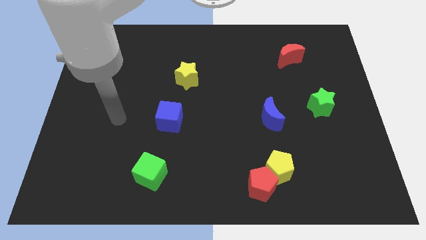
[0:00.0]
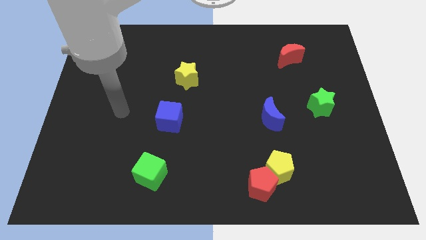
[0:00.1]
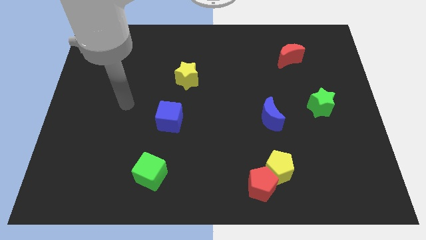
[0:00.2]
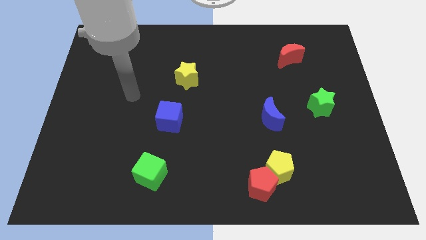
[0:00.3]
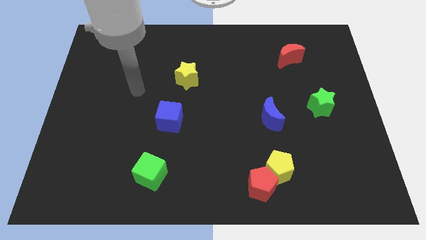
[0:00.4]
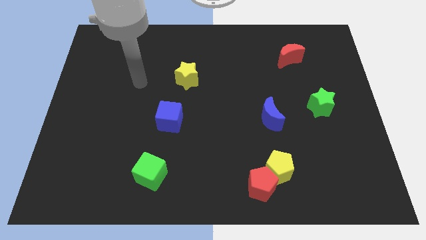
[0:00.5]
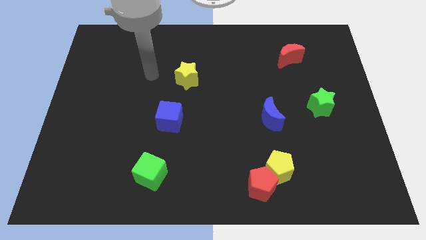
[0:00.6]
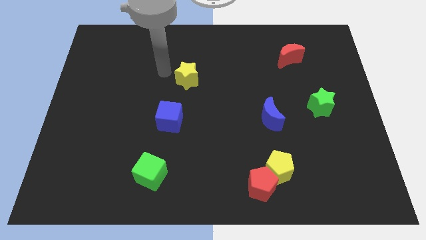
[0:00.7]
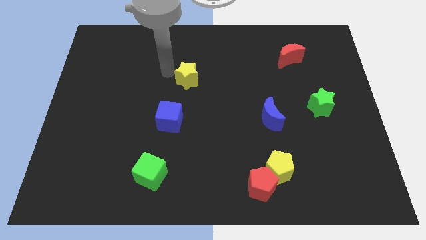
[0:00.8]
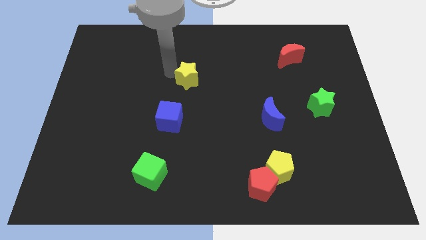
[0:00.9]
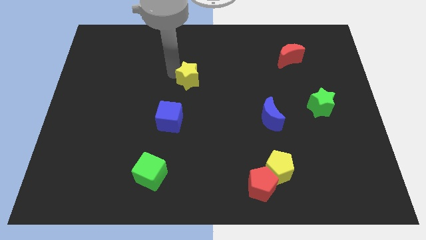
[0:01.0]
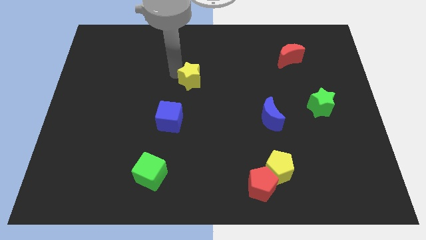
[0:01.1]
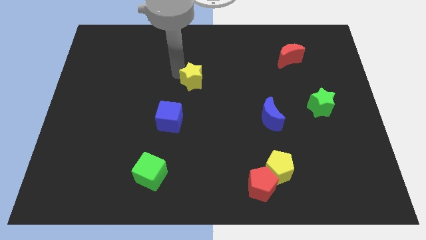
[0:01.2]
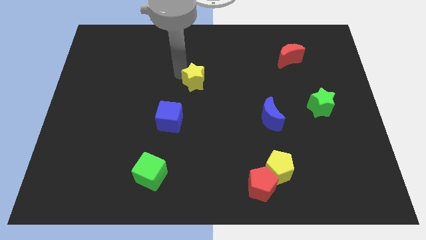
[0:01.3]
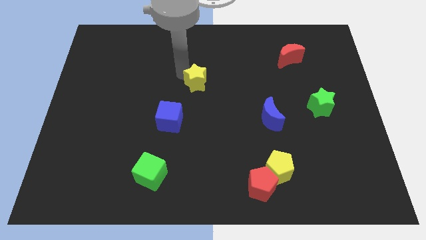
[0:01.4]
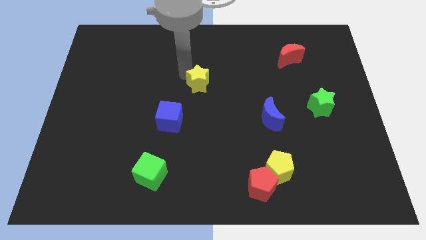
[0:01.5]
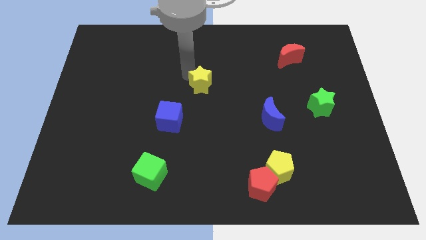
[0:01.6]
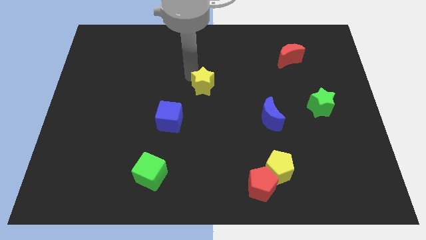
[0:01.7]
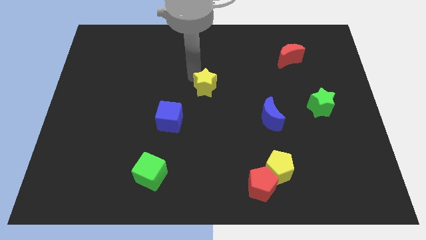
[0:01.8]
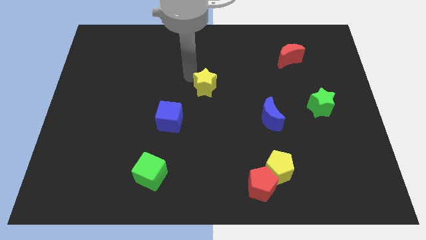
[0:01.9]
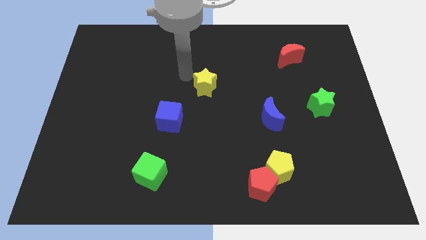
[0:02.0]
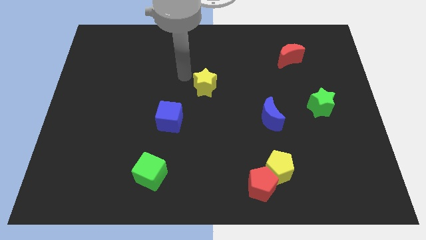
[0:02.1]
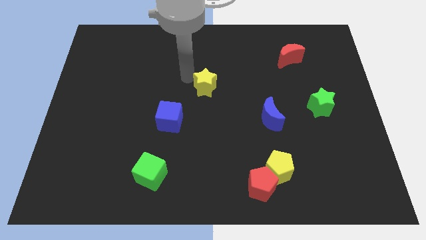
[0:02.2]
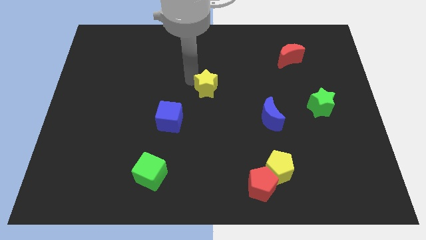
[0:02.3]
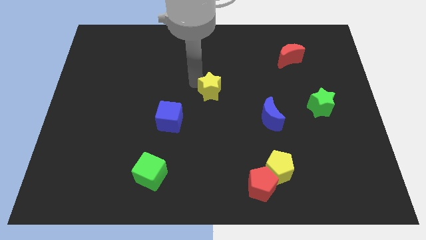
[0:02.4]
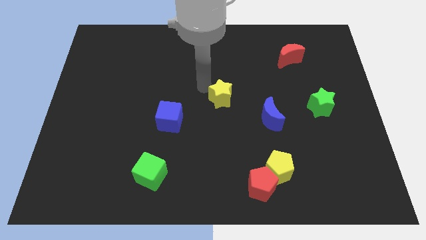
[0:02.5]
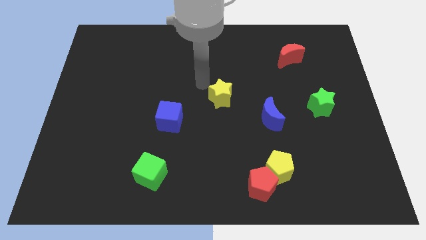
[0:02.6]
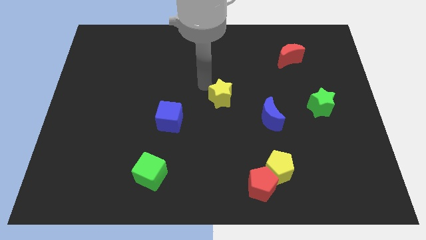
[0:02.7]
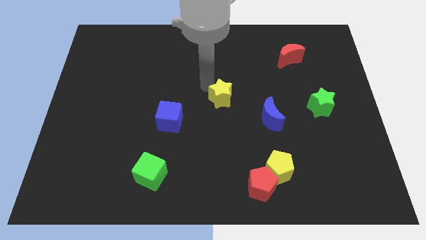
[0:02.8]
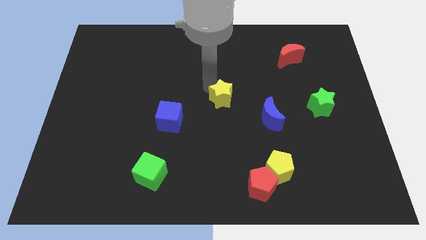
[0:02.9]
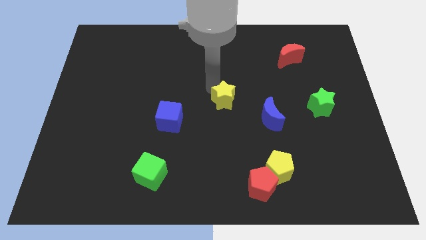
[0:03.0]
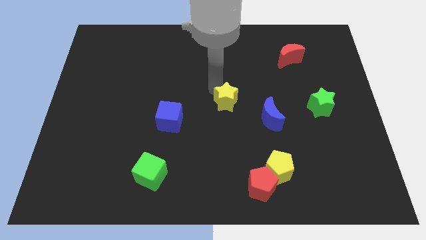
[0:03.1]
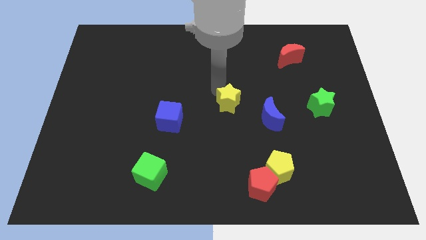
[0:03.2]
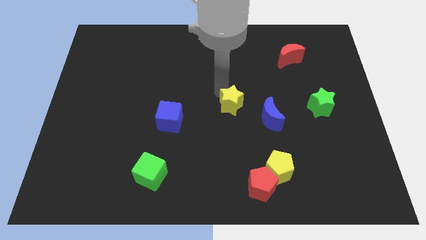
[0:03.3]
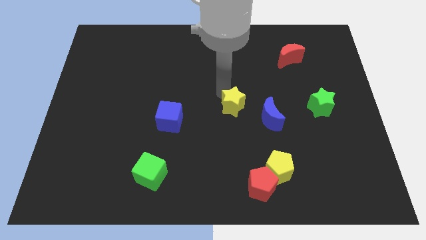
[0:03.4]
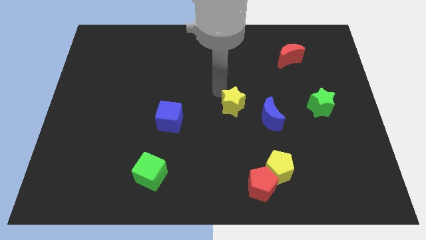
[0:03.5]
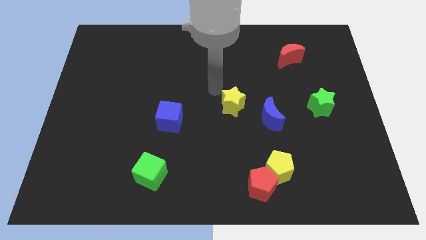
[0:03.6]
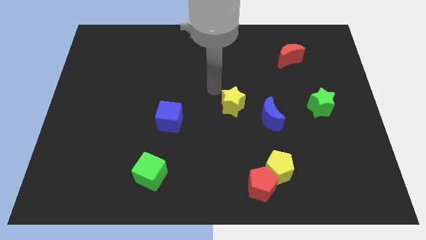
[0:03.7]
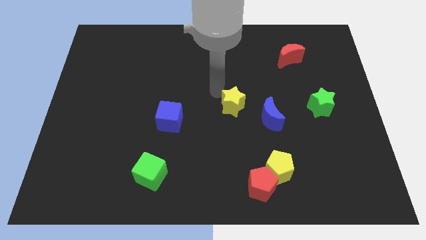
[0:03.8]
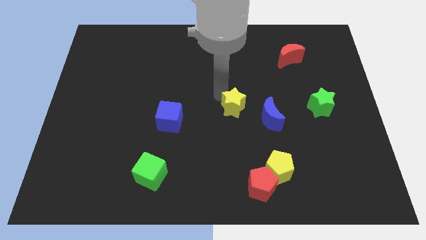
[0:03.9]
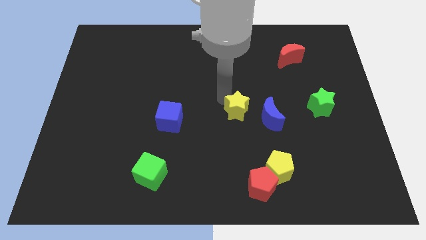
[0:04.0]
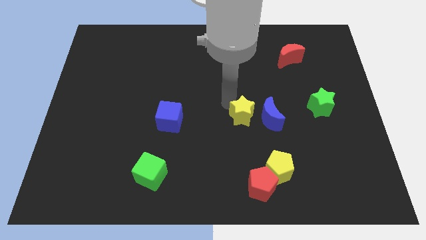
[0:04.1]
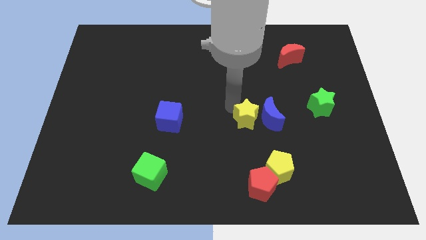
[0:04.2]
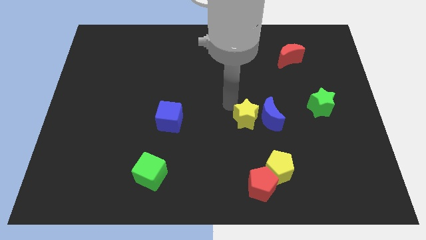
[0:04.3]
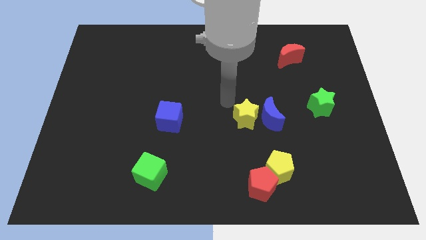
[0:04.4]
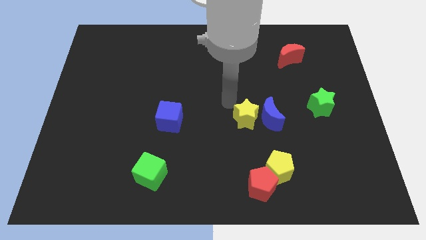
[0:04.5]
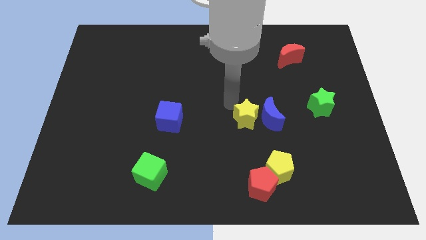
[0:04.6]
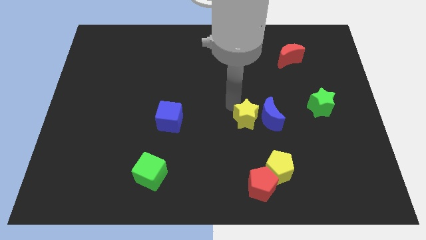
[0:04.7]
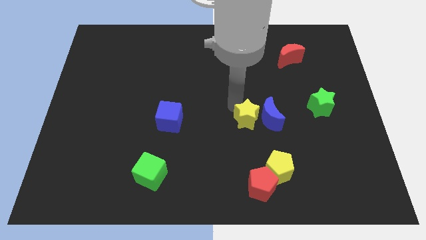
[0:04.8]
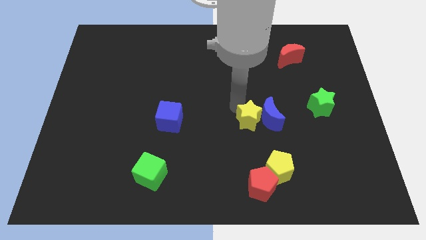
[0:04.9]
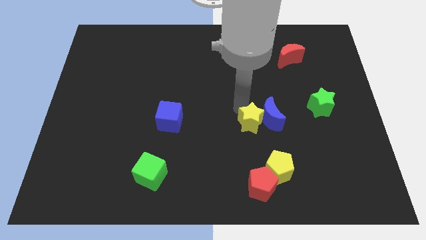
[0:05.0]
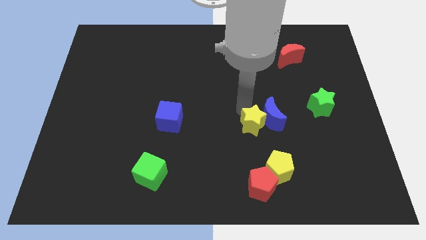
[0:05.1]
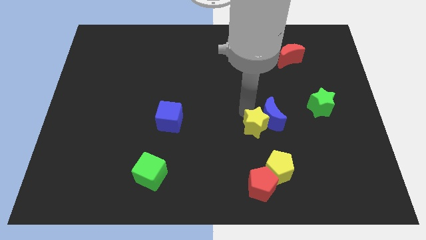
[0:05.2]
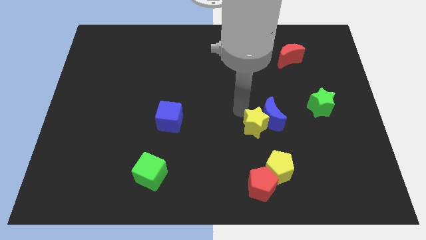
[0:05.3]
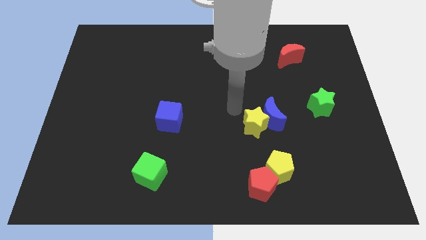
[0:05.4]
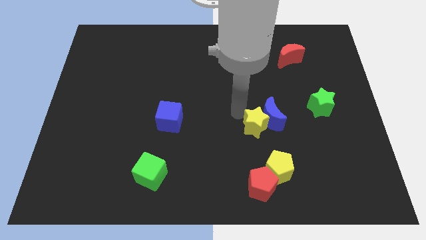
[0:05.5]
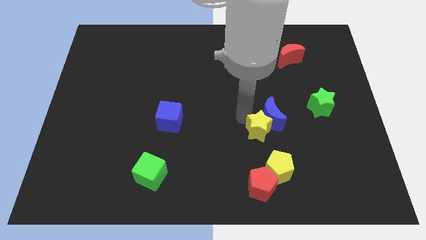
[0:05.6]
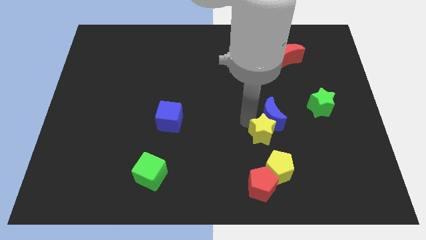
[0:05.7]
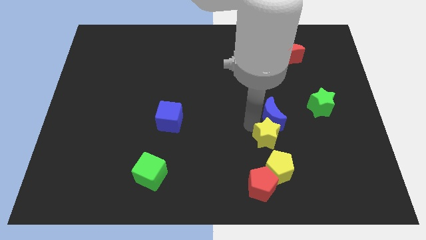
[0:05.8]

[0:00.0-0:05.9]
put the yellow star to the bottom right of the blue moon

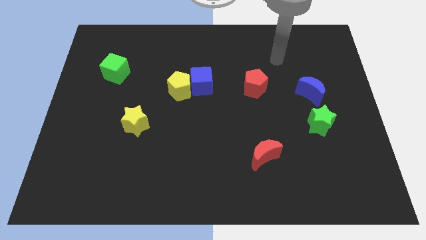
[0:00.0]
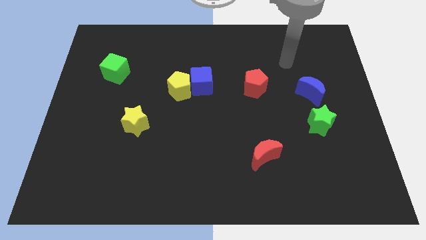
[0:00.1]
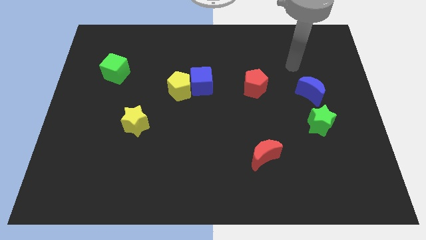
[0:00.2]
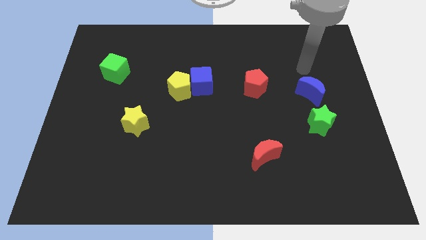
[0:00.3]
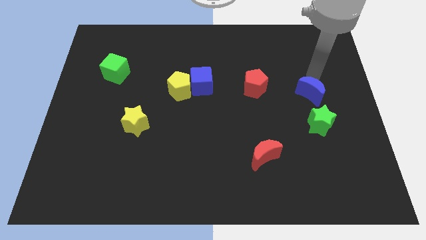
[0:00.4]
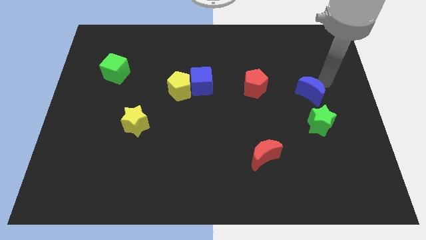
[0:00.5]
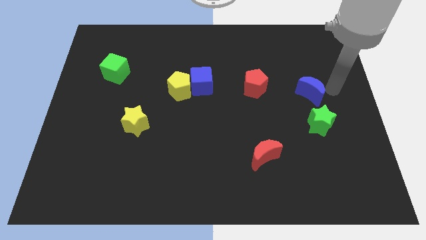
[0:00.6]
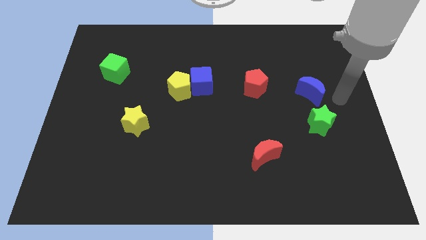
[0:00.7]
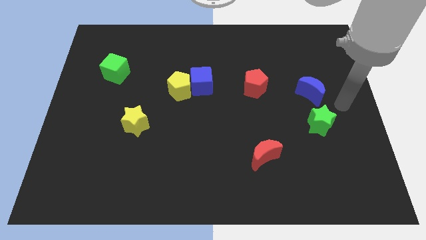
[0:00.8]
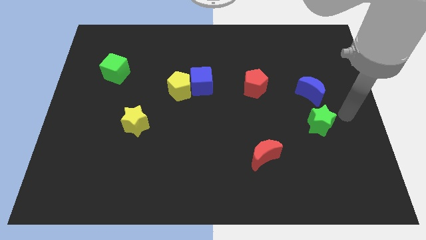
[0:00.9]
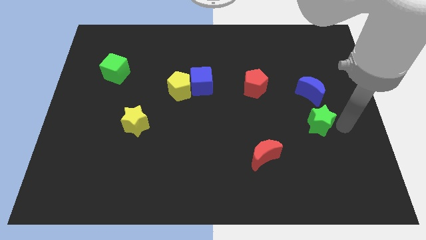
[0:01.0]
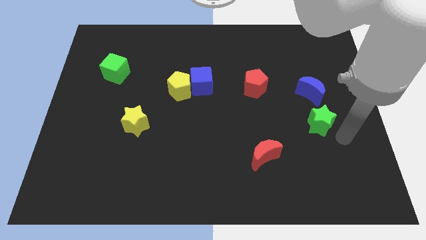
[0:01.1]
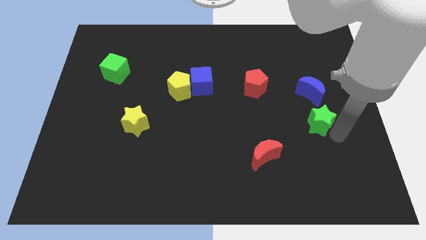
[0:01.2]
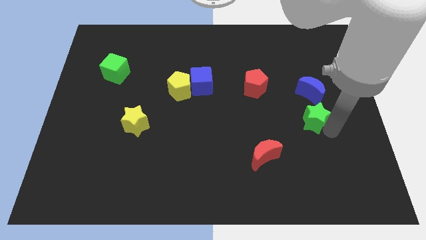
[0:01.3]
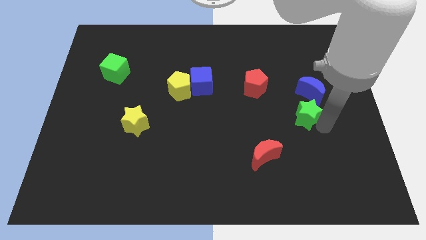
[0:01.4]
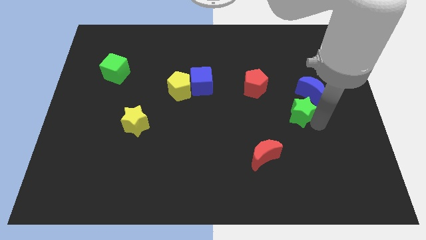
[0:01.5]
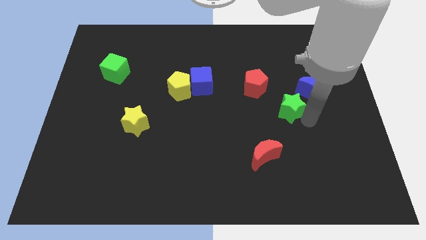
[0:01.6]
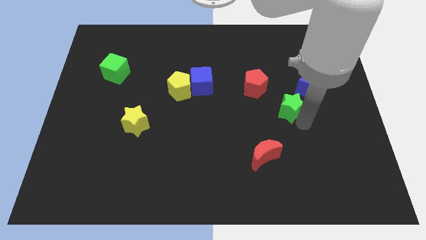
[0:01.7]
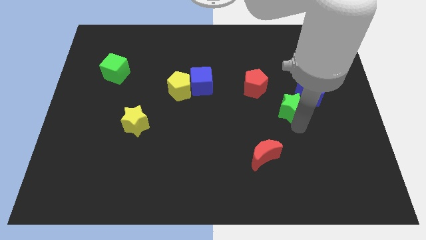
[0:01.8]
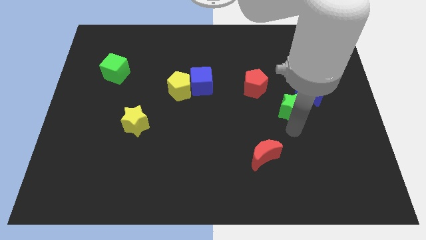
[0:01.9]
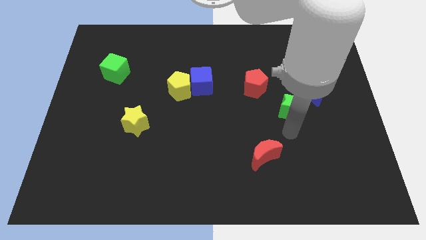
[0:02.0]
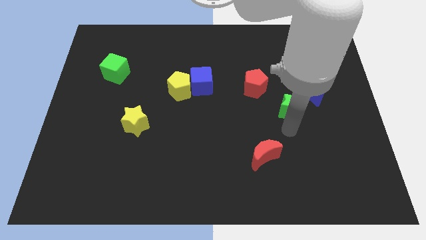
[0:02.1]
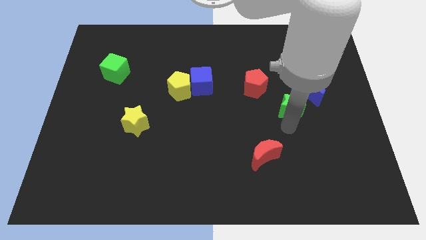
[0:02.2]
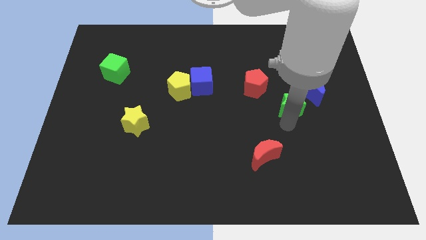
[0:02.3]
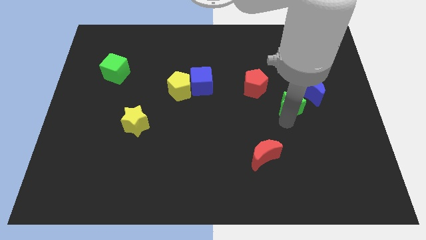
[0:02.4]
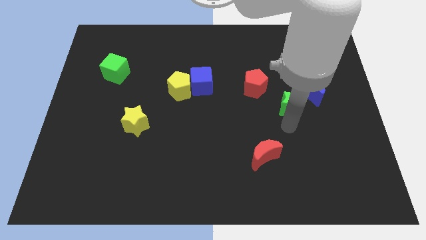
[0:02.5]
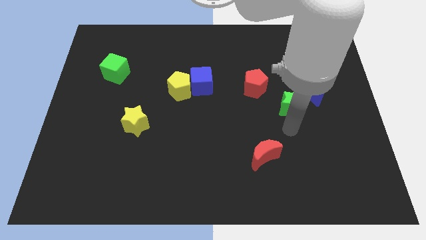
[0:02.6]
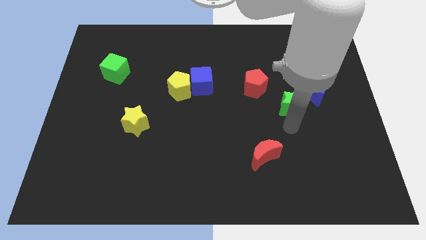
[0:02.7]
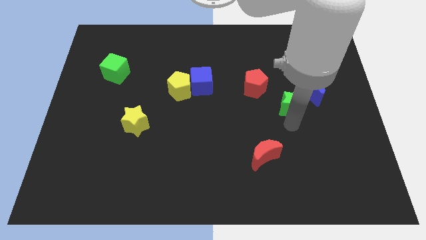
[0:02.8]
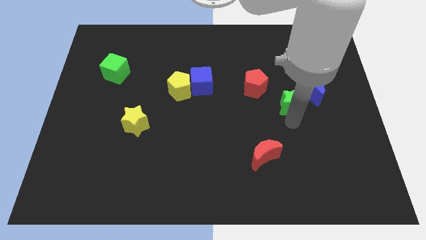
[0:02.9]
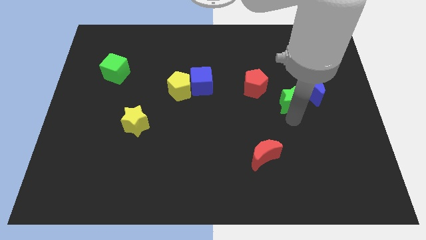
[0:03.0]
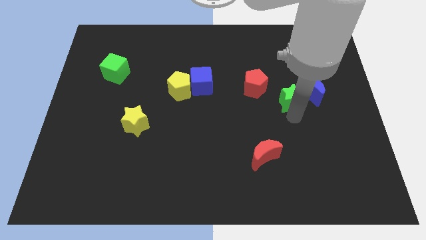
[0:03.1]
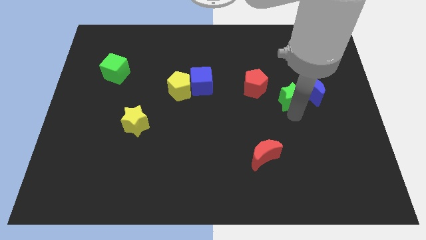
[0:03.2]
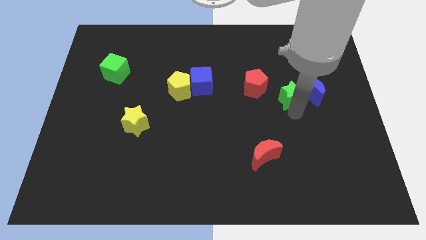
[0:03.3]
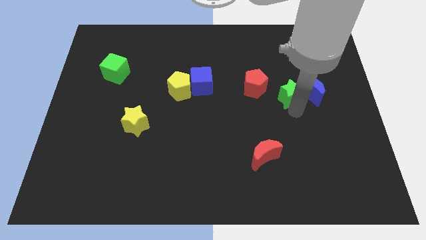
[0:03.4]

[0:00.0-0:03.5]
push the green star diagonally up and to the left of the blue moon
